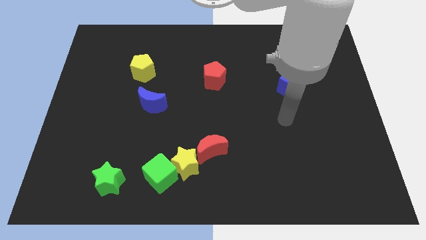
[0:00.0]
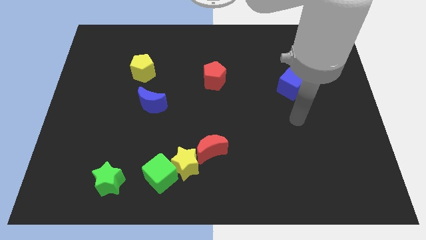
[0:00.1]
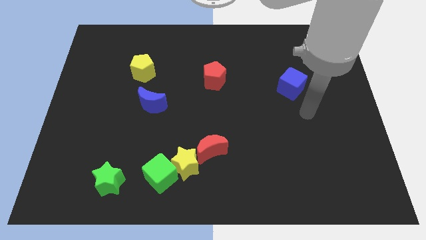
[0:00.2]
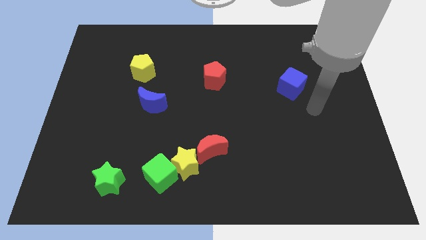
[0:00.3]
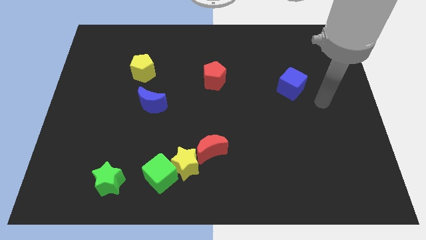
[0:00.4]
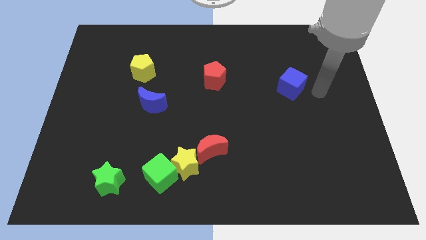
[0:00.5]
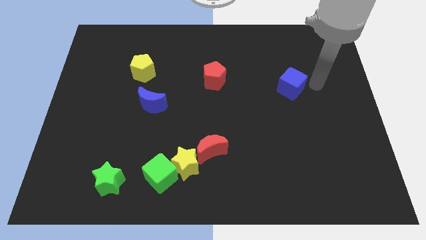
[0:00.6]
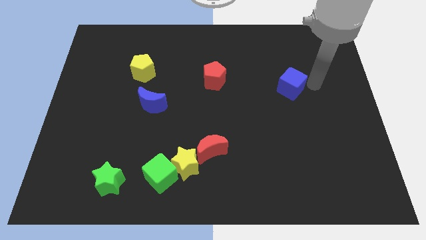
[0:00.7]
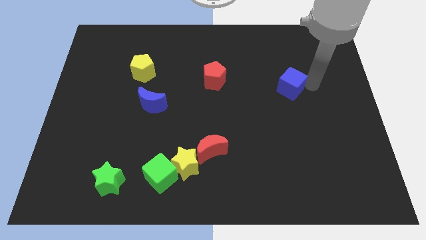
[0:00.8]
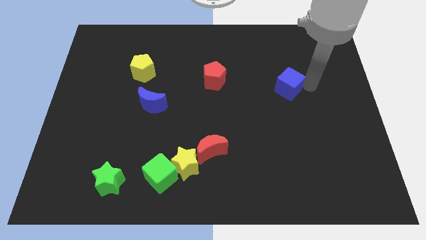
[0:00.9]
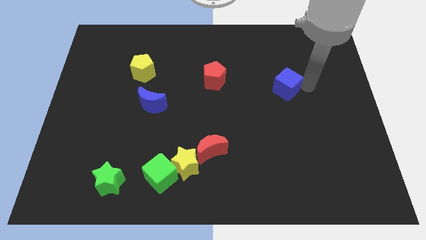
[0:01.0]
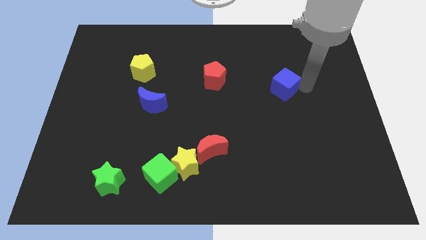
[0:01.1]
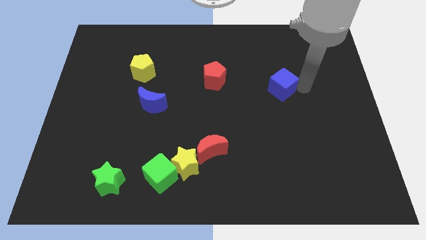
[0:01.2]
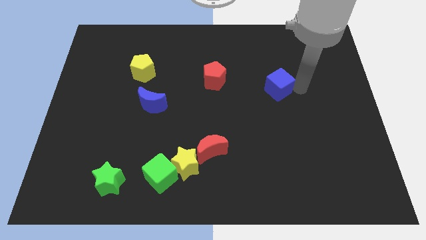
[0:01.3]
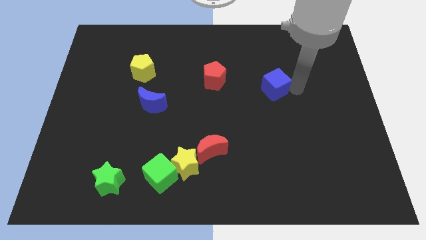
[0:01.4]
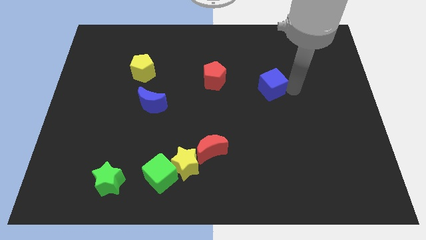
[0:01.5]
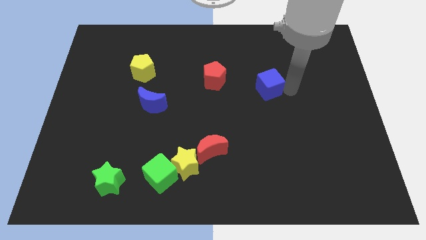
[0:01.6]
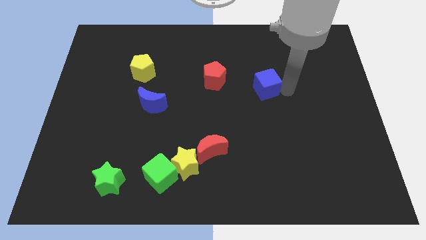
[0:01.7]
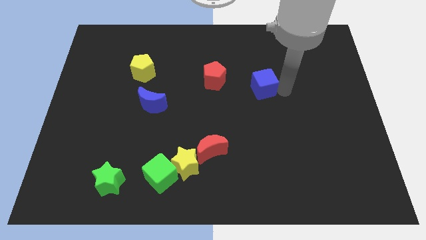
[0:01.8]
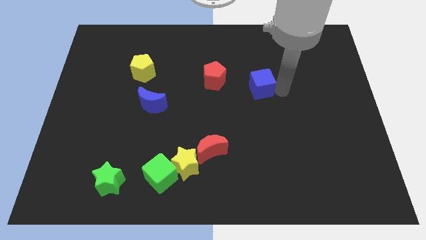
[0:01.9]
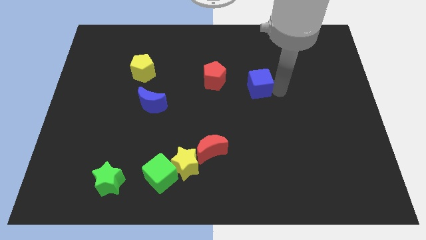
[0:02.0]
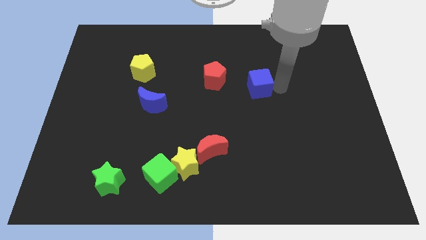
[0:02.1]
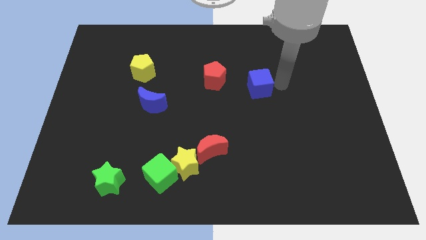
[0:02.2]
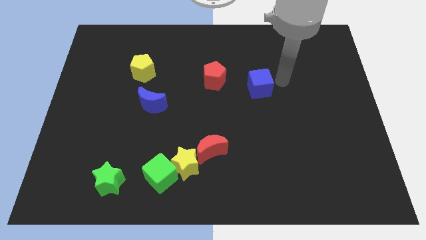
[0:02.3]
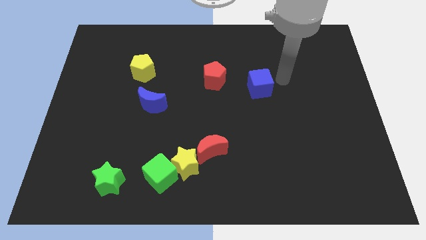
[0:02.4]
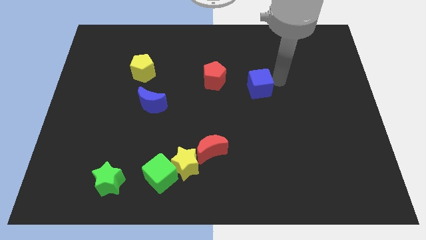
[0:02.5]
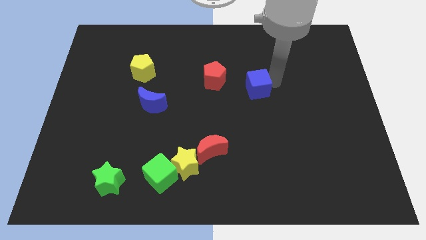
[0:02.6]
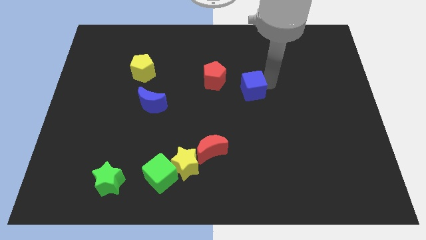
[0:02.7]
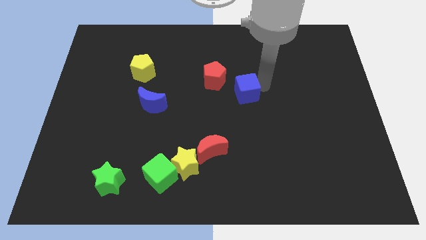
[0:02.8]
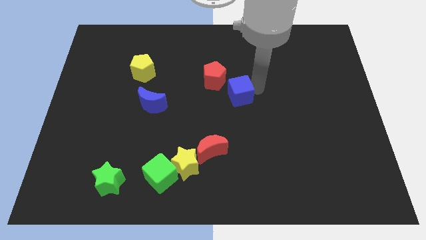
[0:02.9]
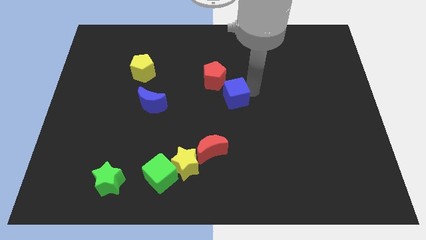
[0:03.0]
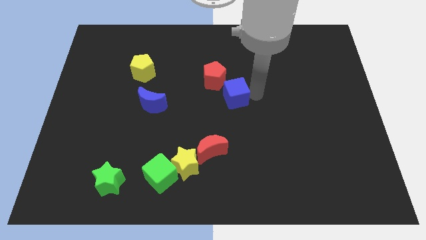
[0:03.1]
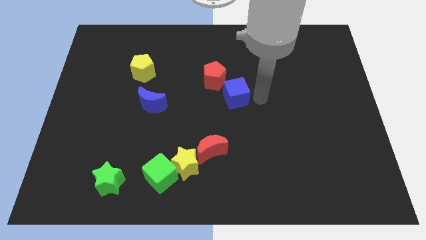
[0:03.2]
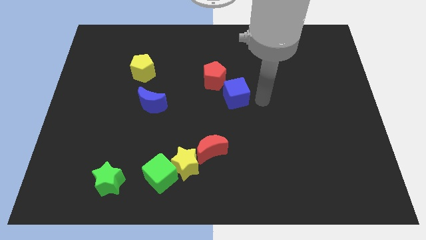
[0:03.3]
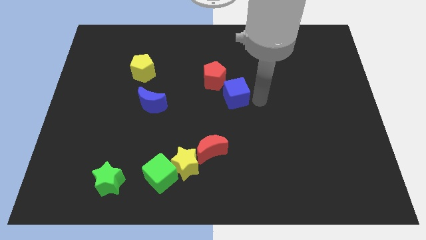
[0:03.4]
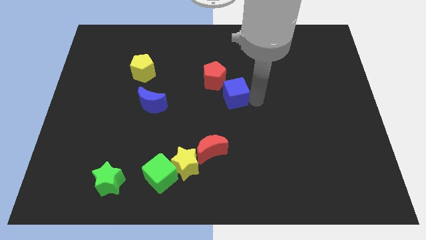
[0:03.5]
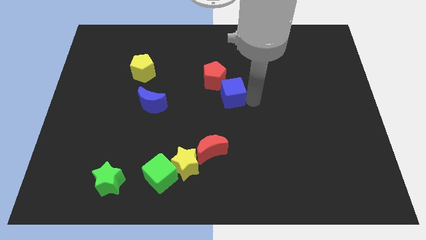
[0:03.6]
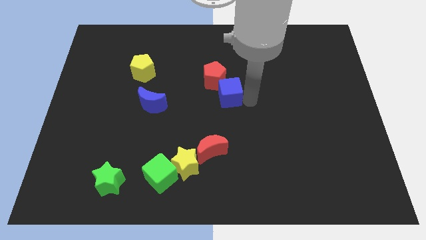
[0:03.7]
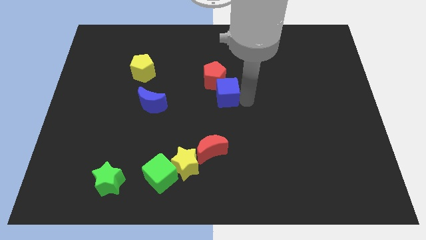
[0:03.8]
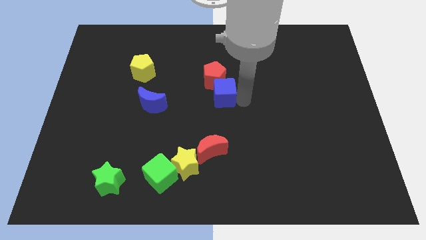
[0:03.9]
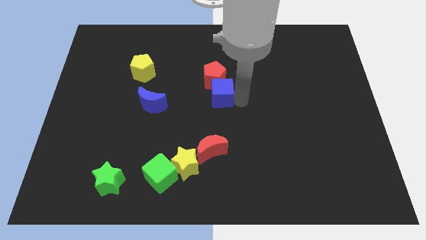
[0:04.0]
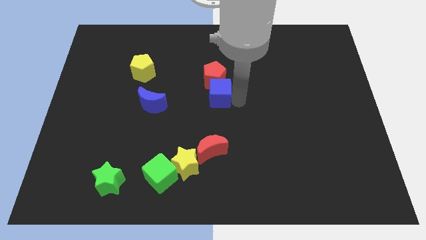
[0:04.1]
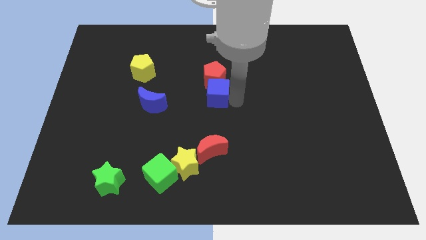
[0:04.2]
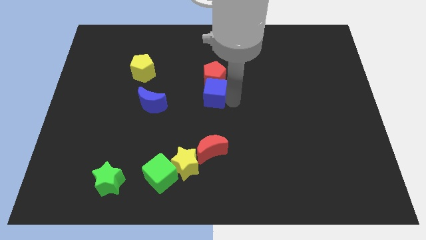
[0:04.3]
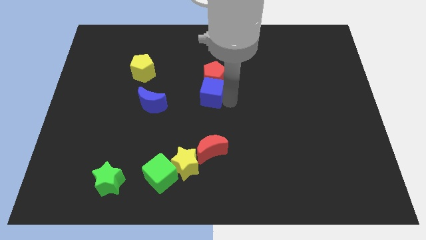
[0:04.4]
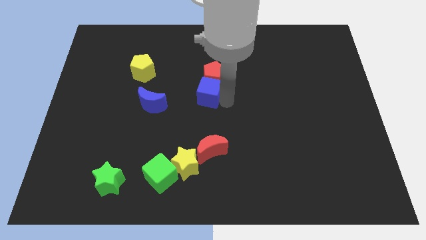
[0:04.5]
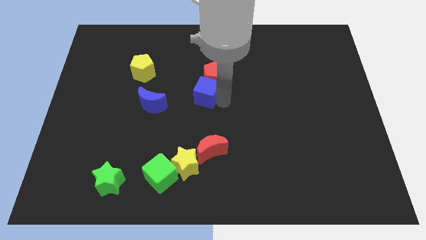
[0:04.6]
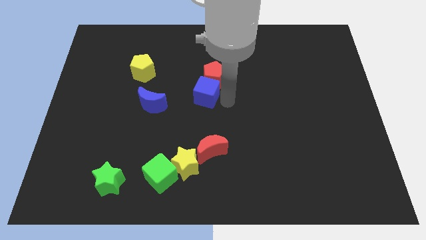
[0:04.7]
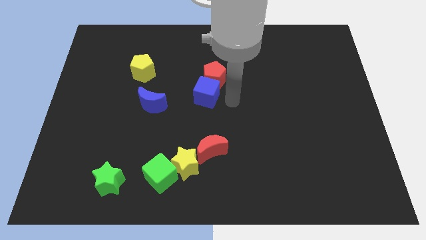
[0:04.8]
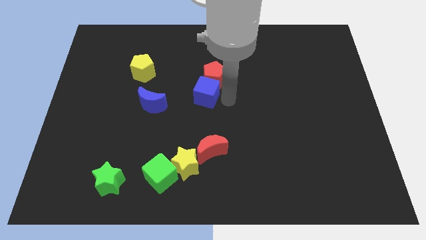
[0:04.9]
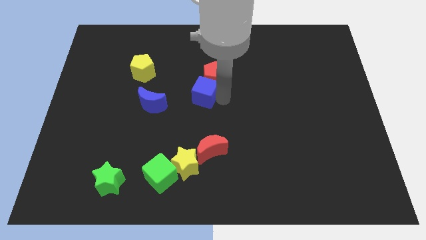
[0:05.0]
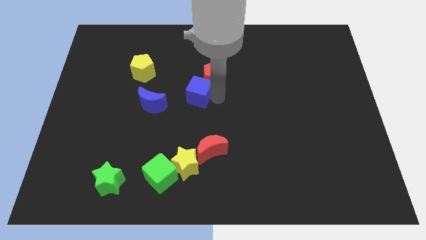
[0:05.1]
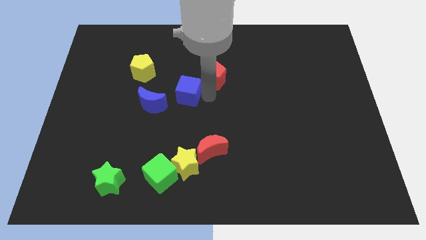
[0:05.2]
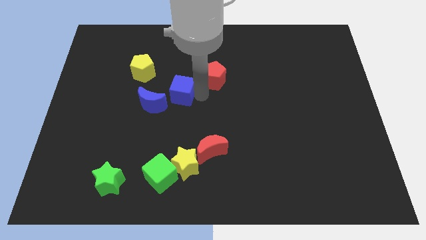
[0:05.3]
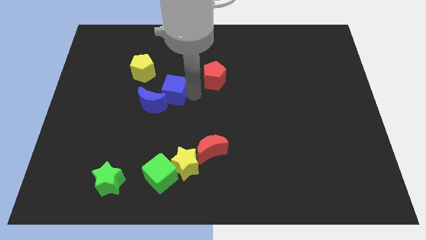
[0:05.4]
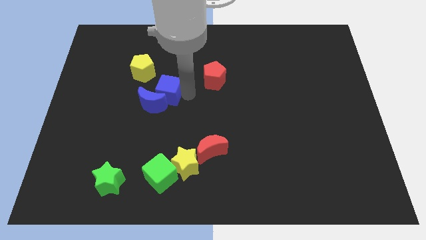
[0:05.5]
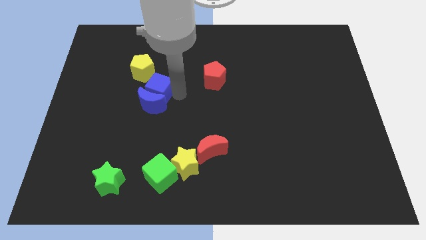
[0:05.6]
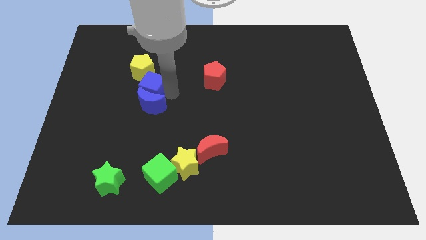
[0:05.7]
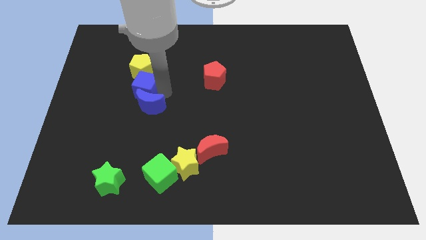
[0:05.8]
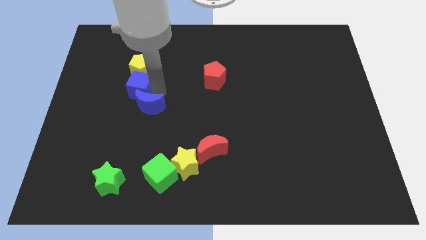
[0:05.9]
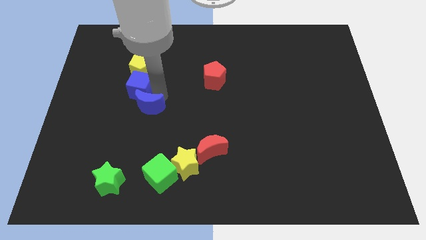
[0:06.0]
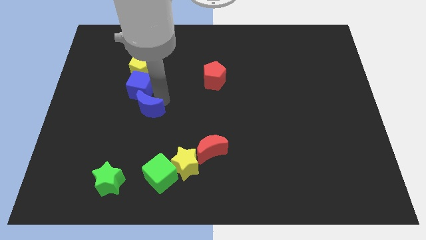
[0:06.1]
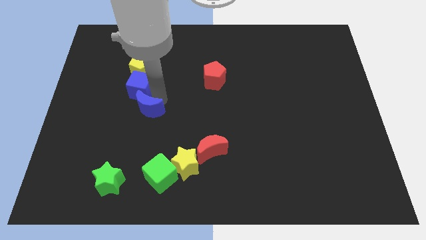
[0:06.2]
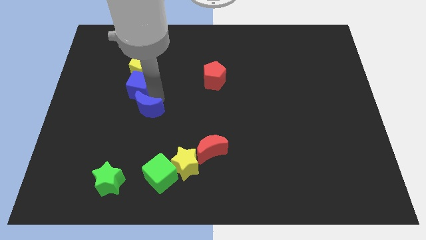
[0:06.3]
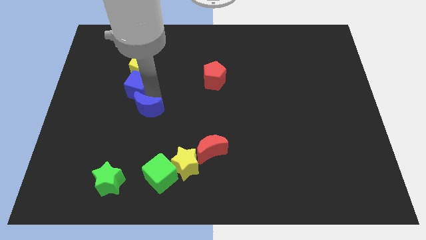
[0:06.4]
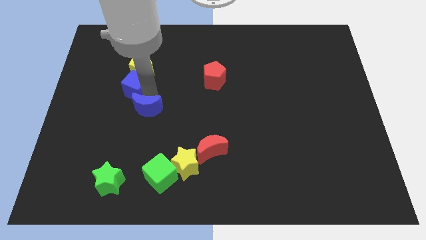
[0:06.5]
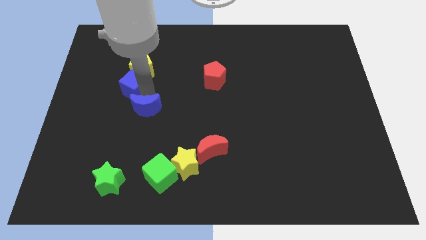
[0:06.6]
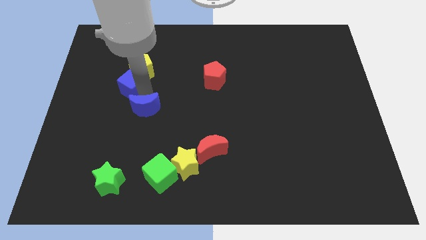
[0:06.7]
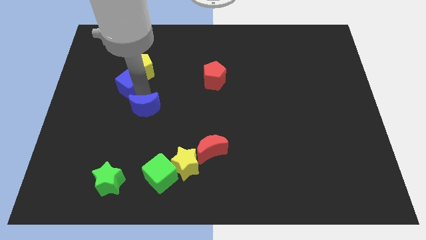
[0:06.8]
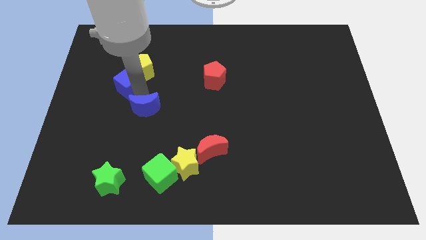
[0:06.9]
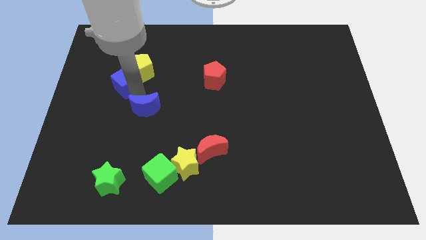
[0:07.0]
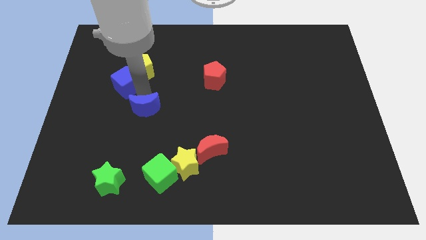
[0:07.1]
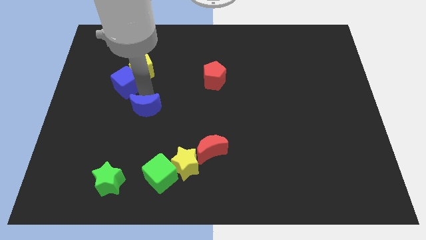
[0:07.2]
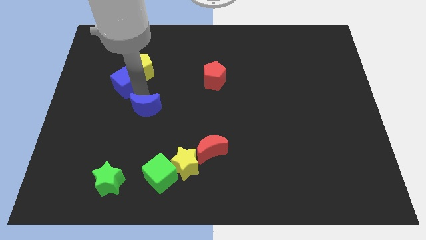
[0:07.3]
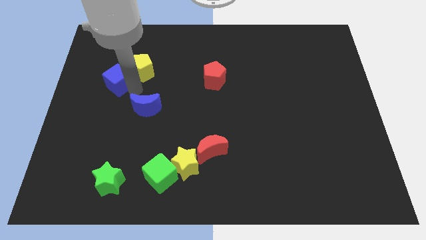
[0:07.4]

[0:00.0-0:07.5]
slide the blue cube left of the yellow pentagon
